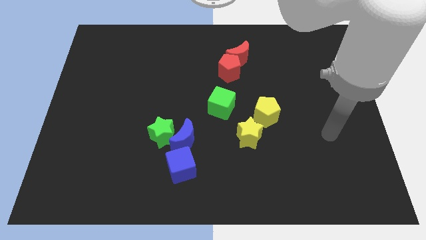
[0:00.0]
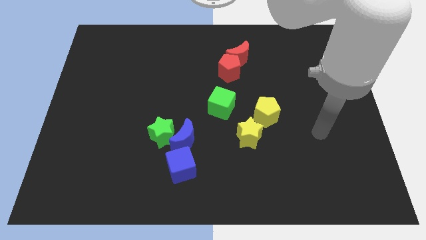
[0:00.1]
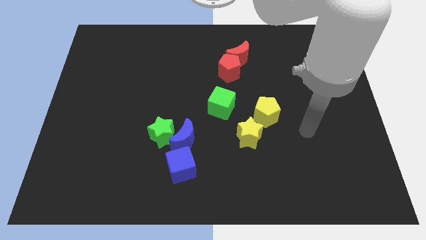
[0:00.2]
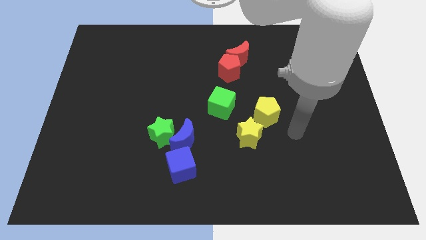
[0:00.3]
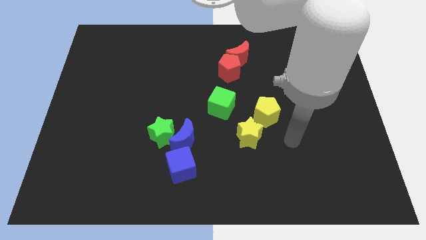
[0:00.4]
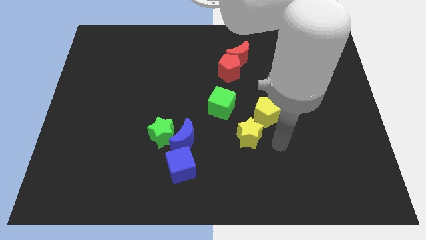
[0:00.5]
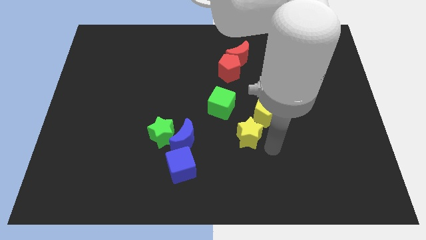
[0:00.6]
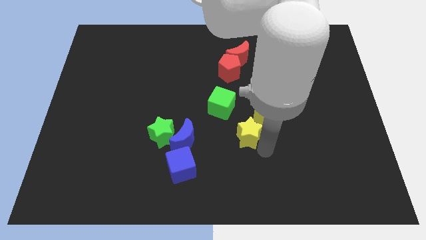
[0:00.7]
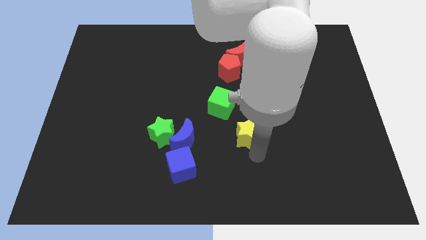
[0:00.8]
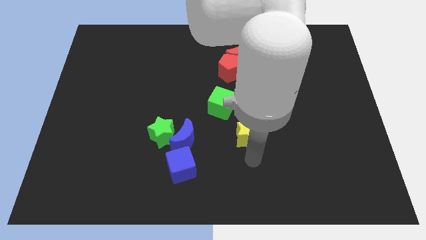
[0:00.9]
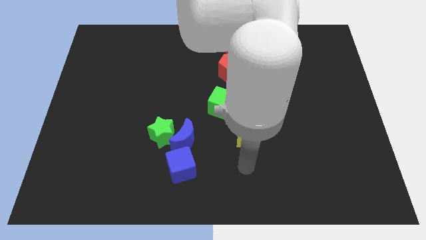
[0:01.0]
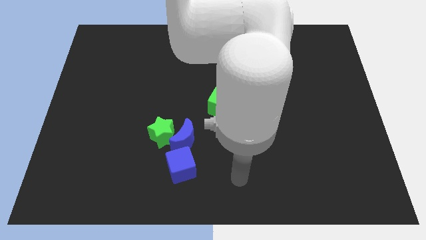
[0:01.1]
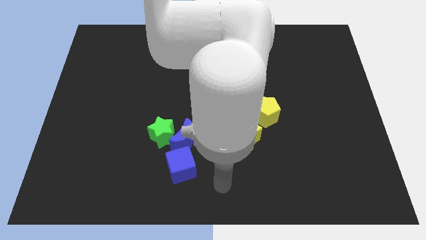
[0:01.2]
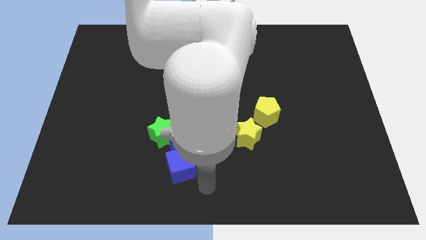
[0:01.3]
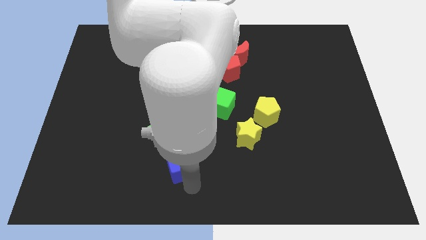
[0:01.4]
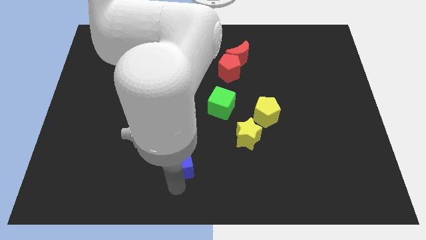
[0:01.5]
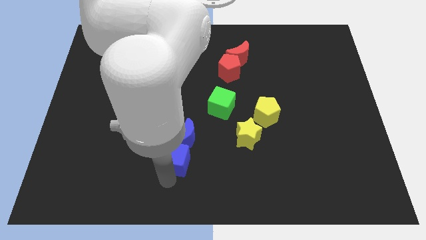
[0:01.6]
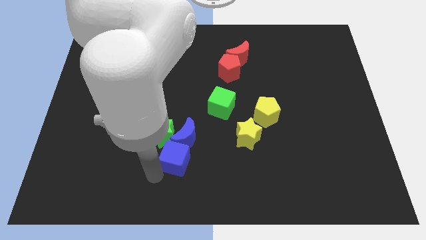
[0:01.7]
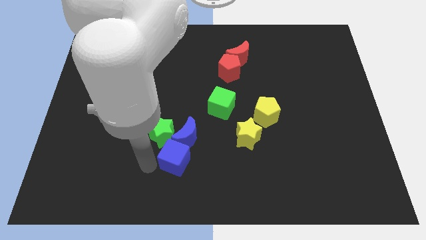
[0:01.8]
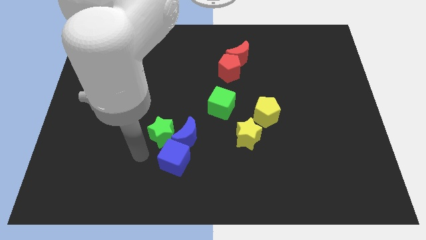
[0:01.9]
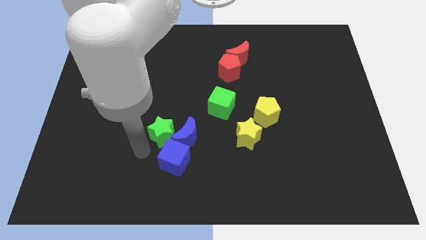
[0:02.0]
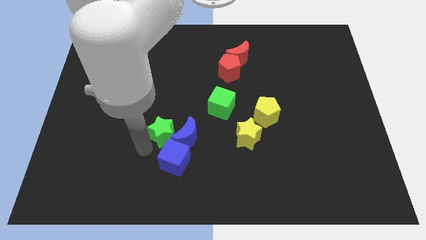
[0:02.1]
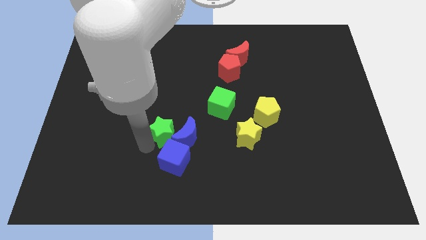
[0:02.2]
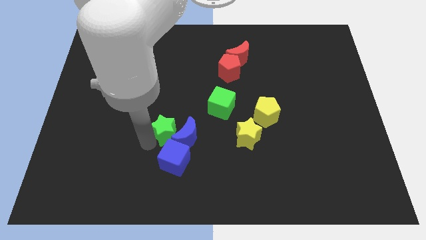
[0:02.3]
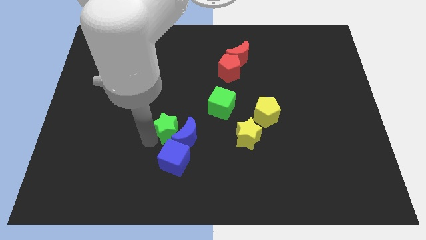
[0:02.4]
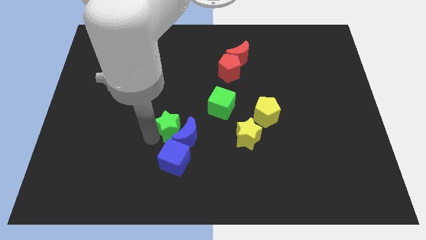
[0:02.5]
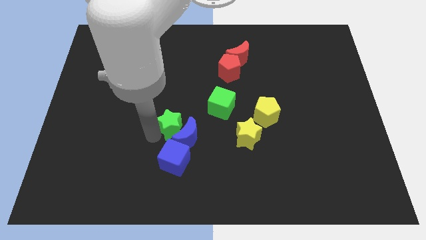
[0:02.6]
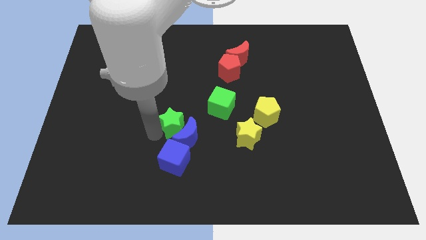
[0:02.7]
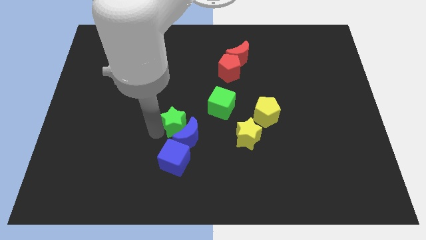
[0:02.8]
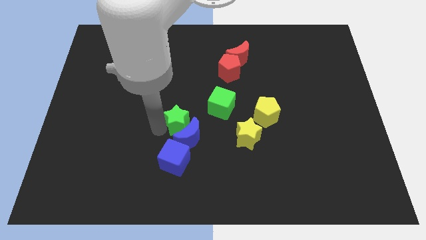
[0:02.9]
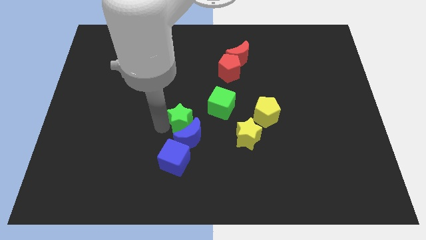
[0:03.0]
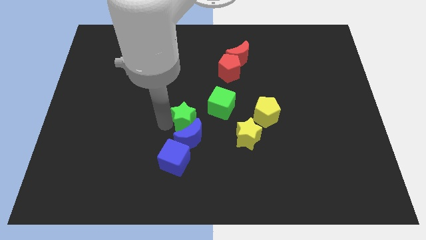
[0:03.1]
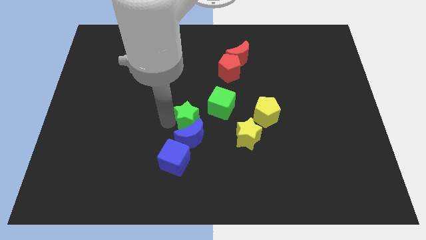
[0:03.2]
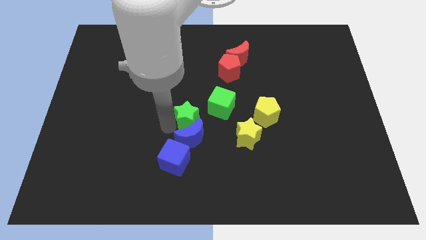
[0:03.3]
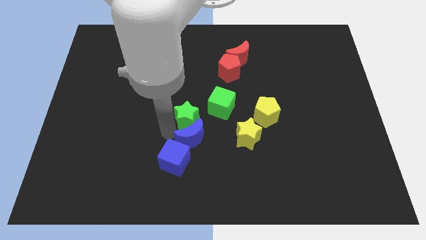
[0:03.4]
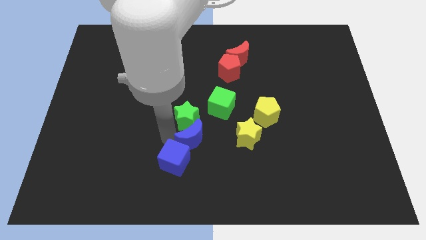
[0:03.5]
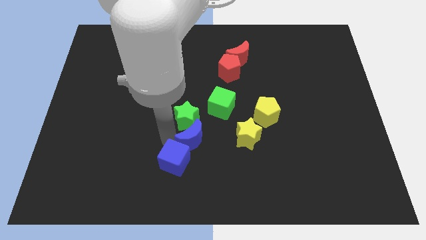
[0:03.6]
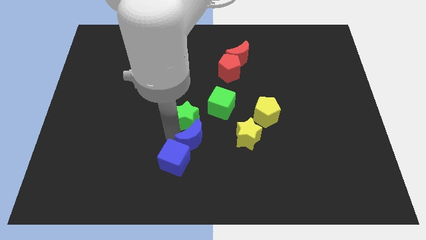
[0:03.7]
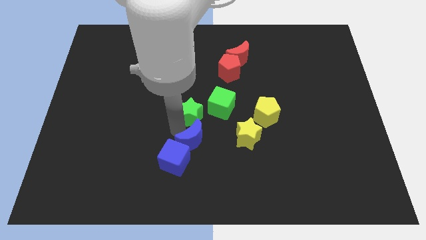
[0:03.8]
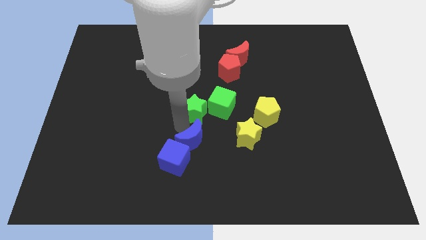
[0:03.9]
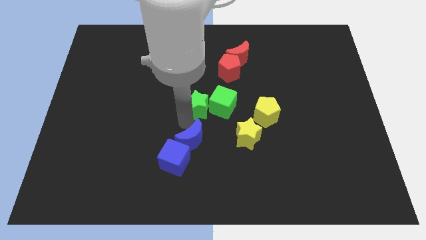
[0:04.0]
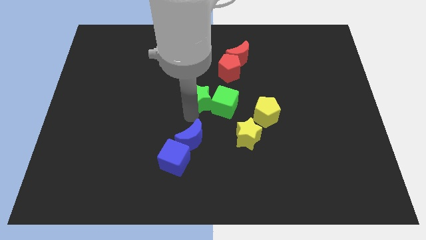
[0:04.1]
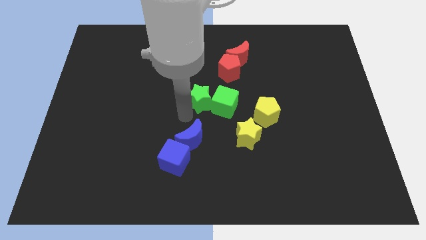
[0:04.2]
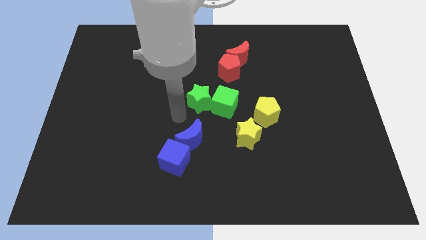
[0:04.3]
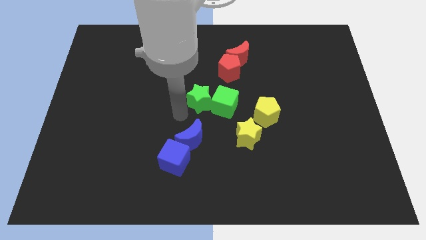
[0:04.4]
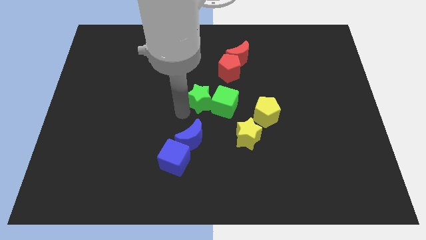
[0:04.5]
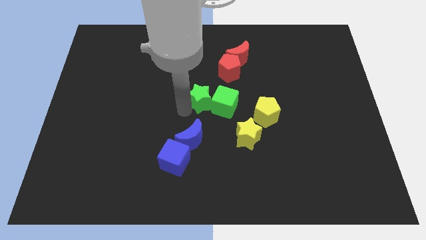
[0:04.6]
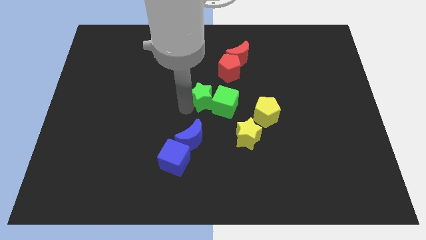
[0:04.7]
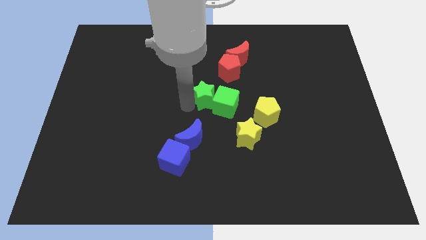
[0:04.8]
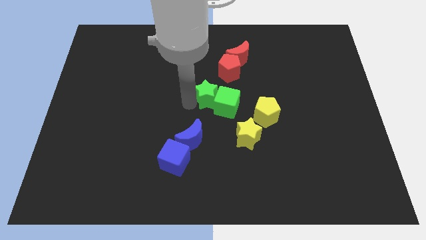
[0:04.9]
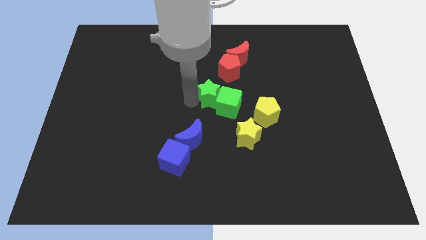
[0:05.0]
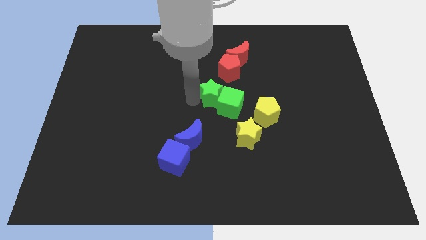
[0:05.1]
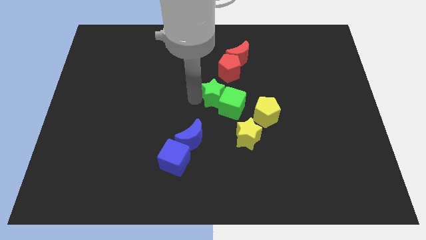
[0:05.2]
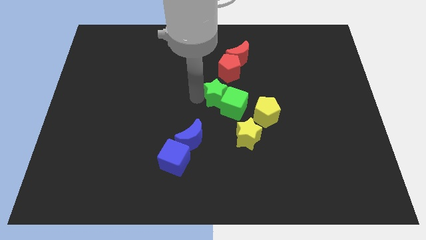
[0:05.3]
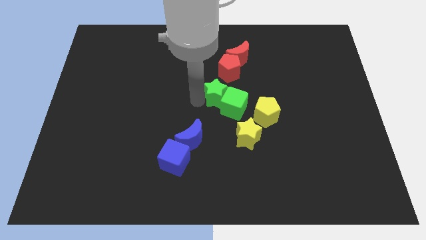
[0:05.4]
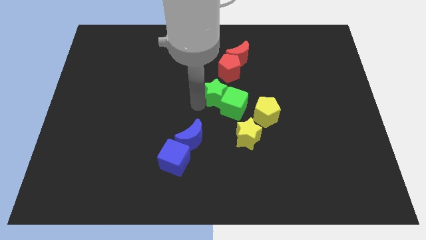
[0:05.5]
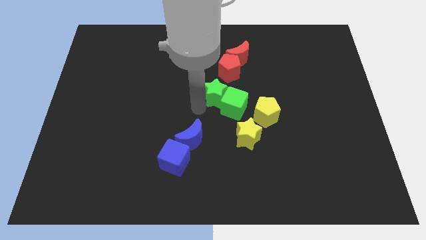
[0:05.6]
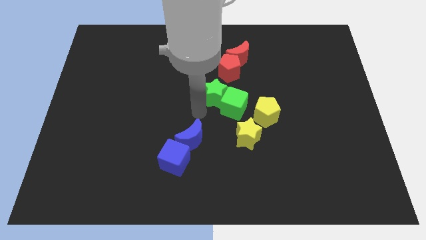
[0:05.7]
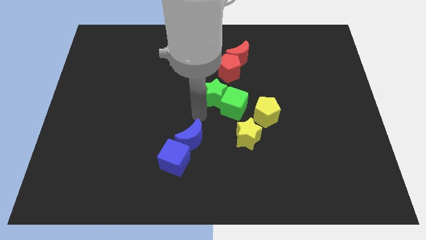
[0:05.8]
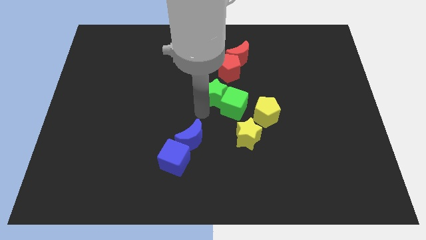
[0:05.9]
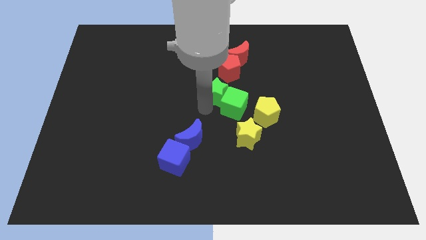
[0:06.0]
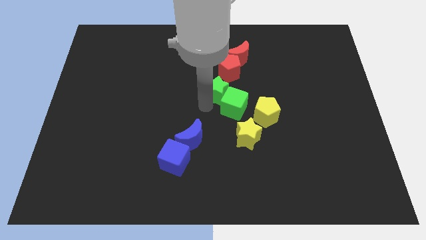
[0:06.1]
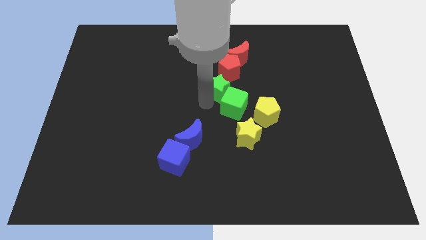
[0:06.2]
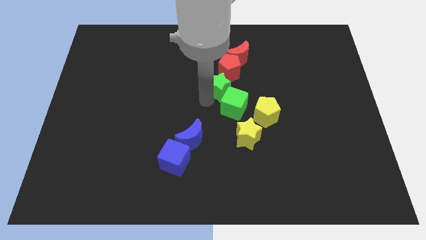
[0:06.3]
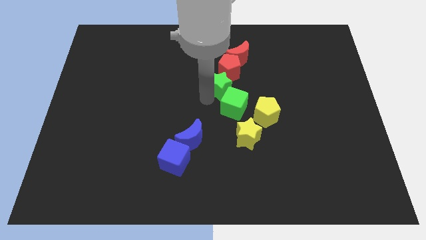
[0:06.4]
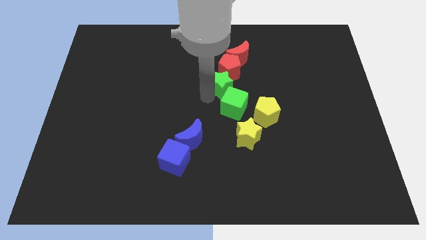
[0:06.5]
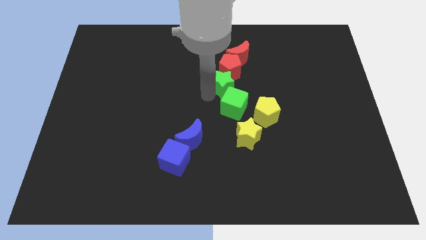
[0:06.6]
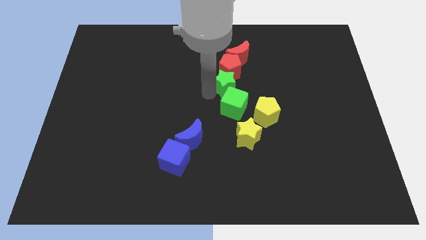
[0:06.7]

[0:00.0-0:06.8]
slide the green star diagonally up and right

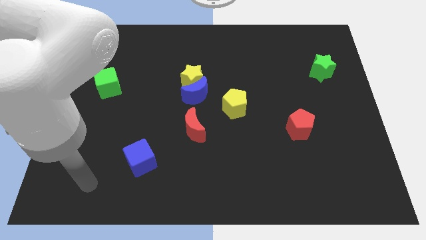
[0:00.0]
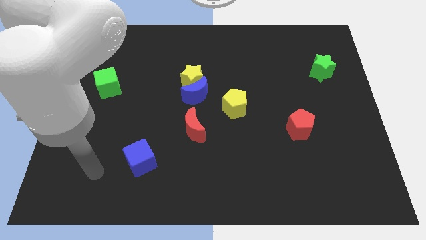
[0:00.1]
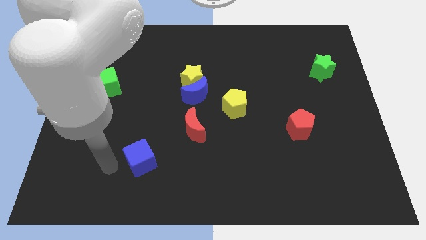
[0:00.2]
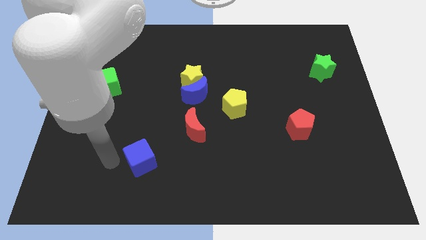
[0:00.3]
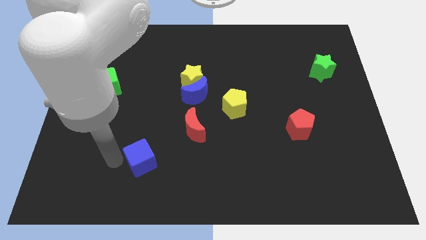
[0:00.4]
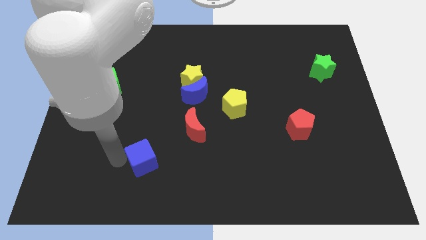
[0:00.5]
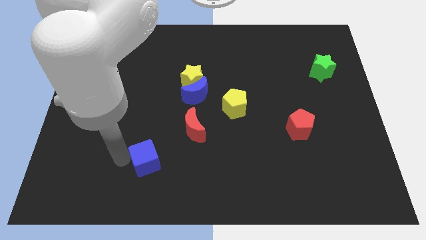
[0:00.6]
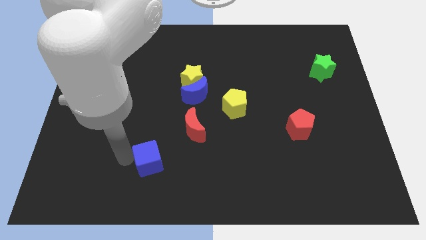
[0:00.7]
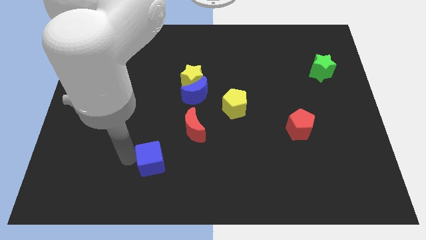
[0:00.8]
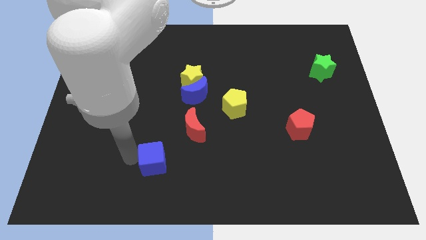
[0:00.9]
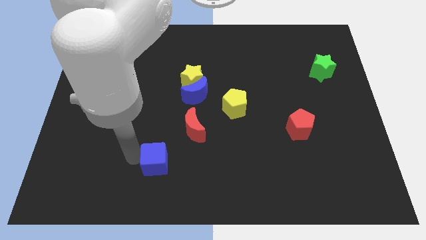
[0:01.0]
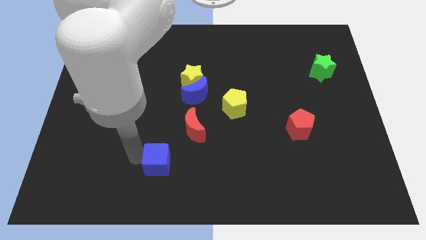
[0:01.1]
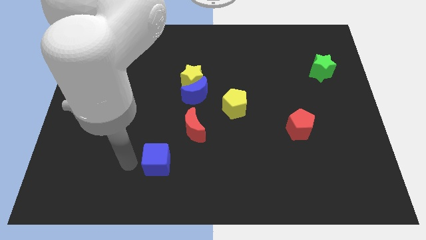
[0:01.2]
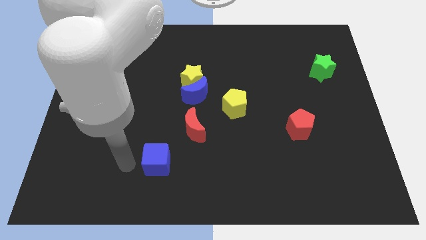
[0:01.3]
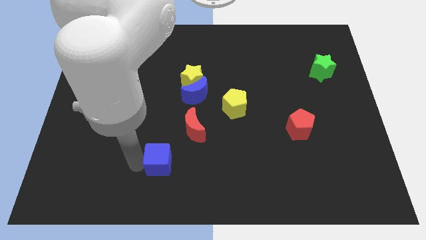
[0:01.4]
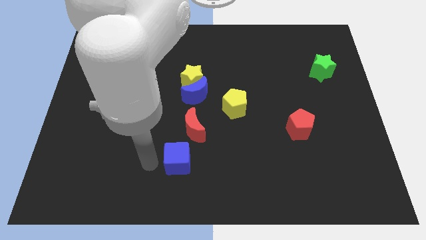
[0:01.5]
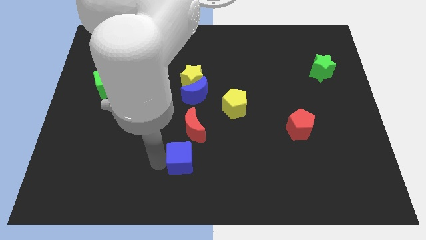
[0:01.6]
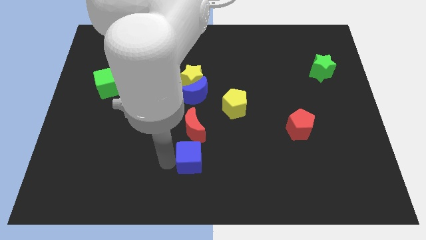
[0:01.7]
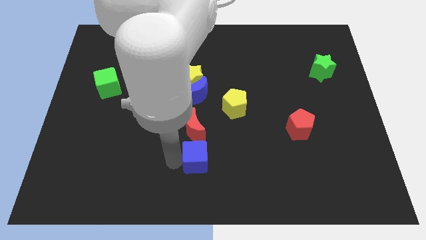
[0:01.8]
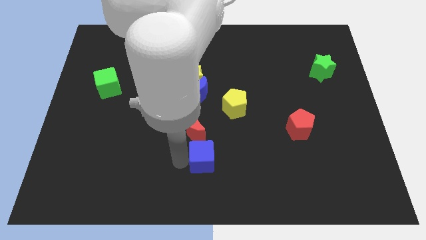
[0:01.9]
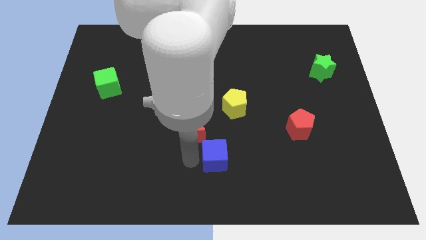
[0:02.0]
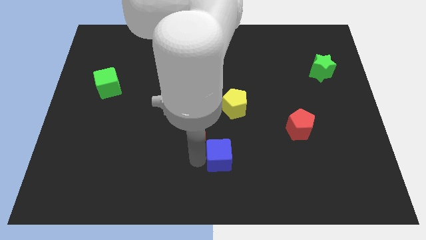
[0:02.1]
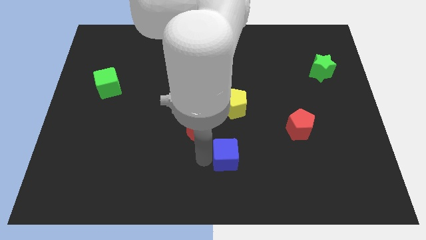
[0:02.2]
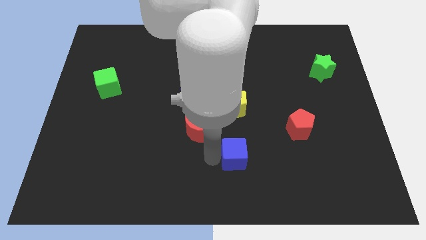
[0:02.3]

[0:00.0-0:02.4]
slide the blue cube right
